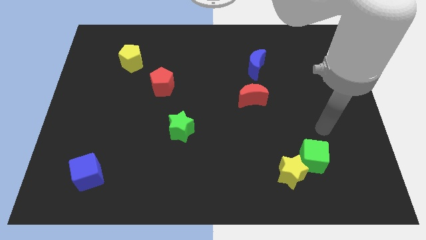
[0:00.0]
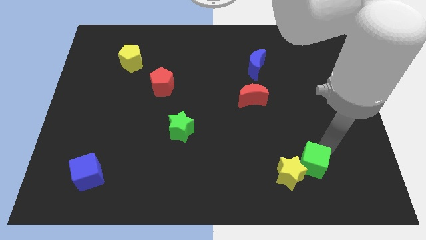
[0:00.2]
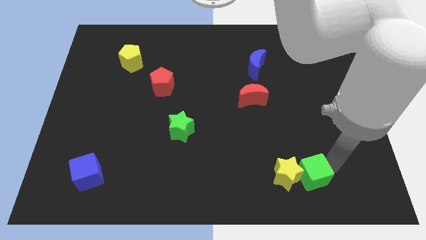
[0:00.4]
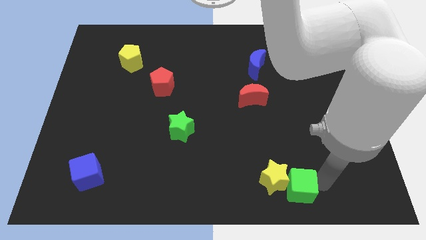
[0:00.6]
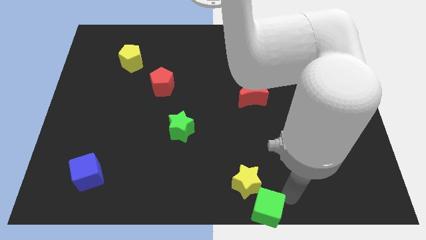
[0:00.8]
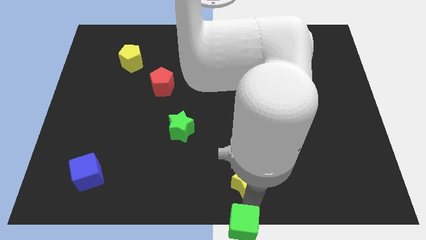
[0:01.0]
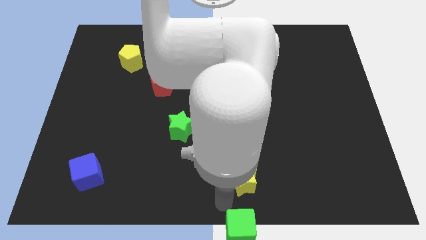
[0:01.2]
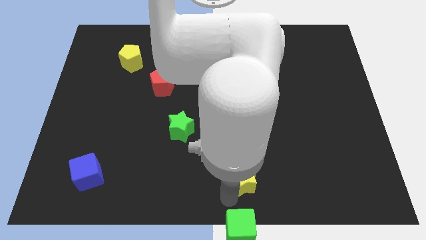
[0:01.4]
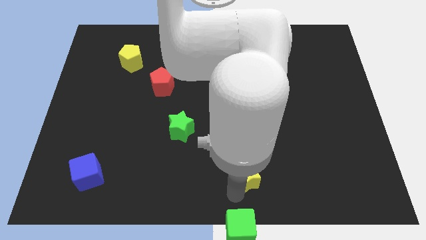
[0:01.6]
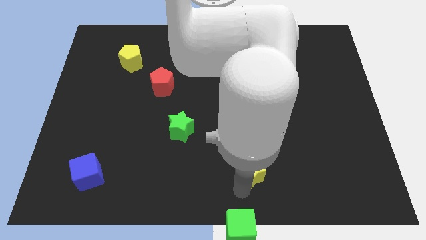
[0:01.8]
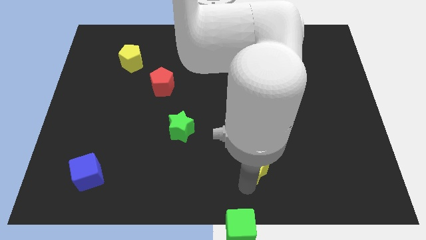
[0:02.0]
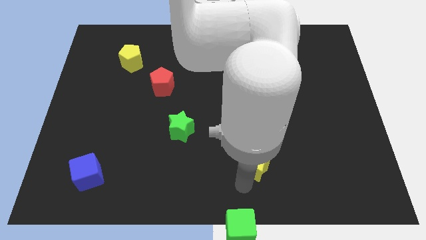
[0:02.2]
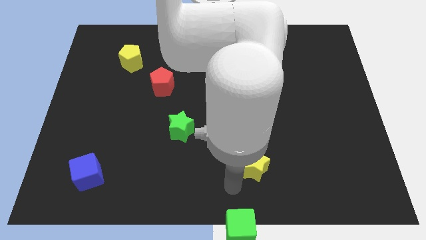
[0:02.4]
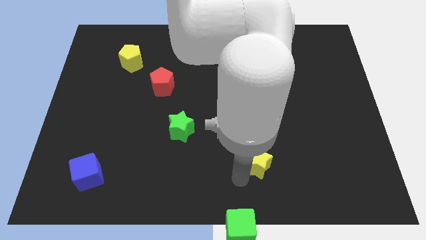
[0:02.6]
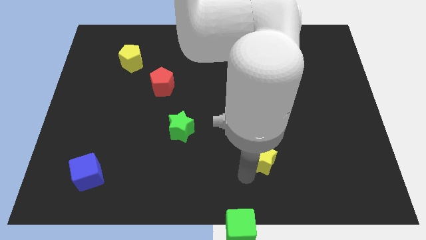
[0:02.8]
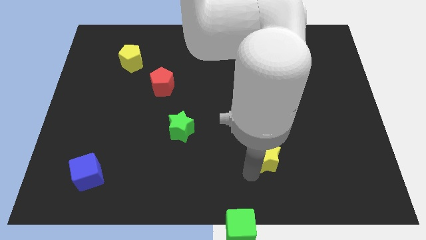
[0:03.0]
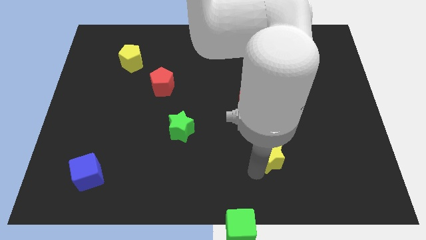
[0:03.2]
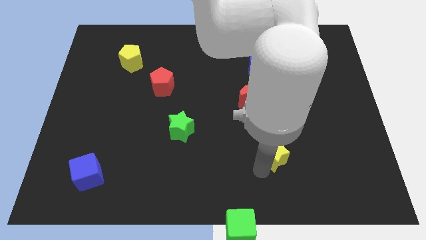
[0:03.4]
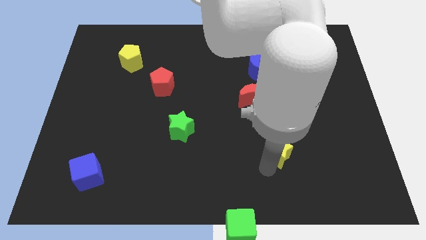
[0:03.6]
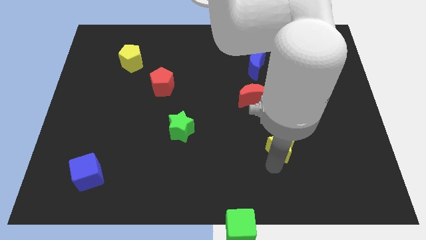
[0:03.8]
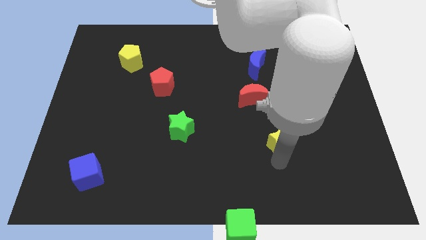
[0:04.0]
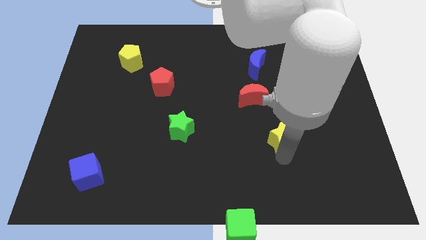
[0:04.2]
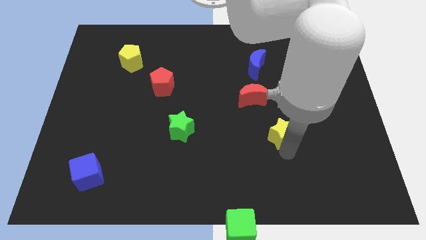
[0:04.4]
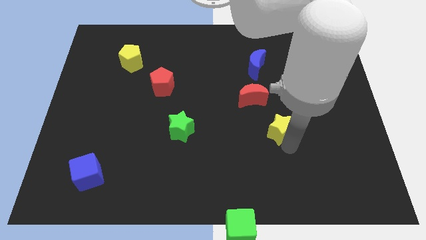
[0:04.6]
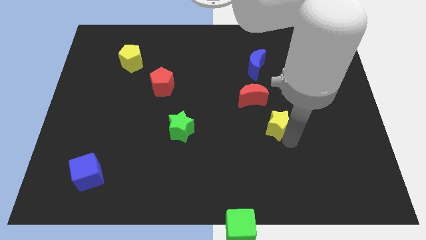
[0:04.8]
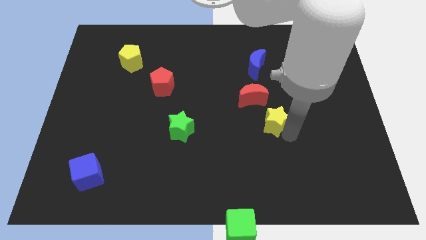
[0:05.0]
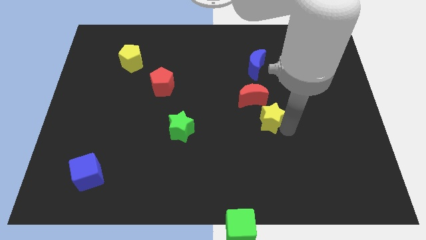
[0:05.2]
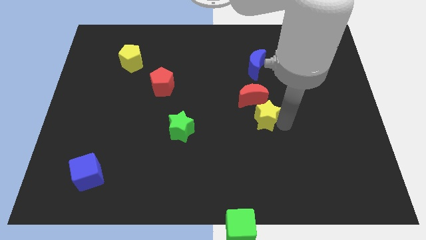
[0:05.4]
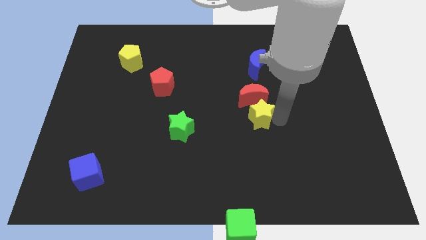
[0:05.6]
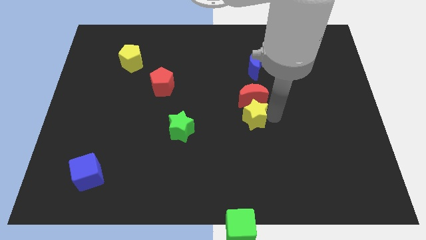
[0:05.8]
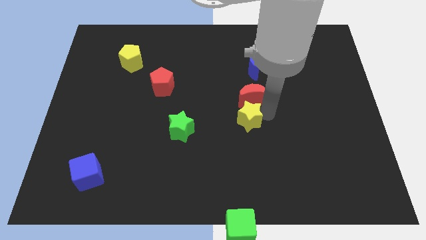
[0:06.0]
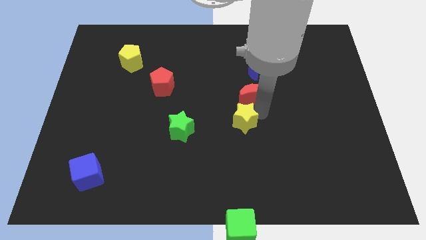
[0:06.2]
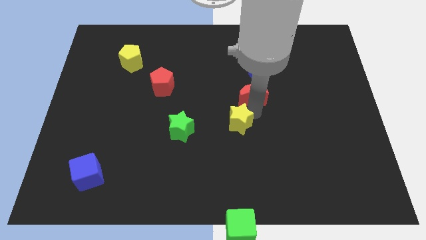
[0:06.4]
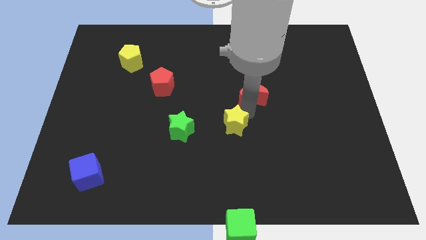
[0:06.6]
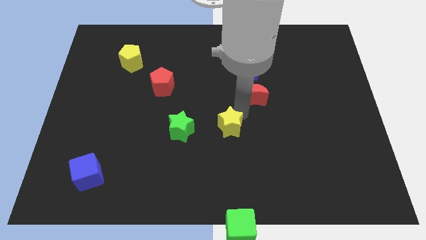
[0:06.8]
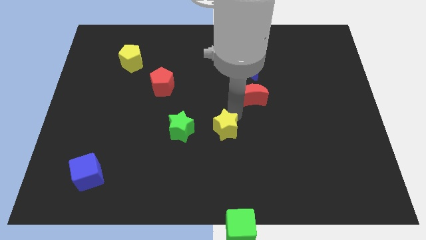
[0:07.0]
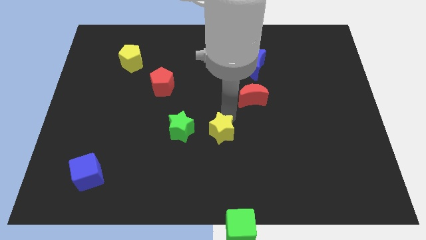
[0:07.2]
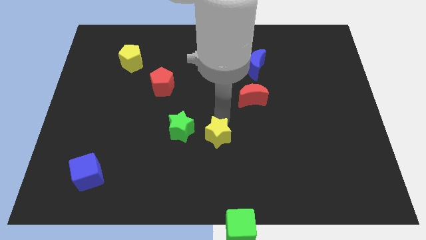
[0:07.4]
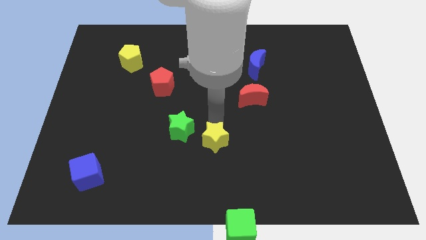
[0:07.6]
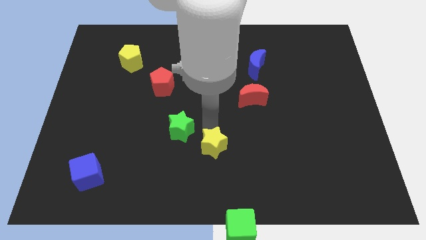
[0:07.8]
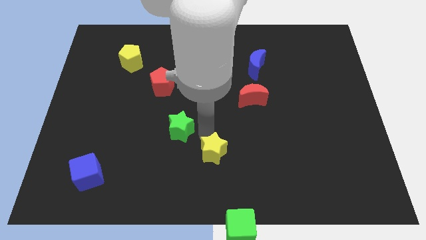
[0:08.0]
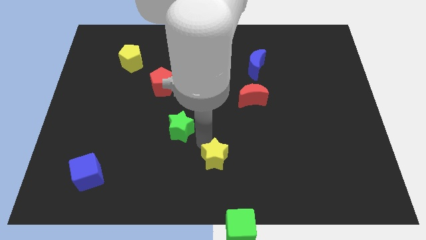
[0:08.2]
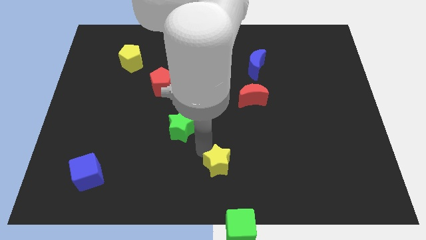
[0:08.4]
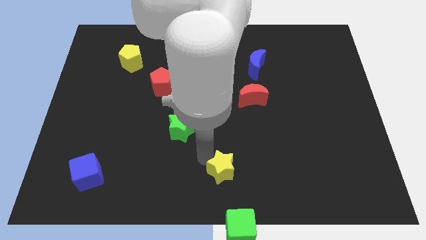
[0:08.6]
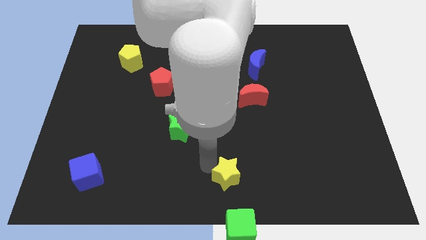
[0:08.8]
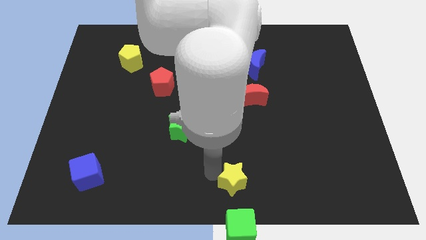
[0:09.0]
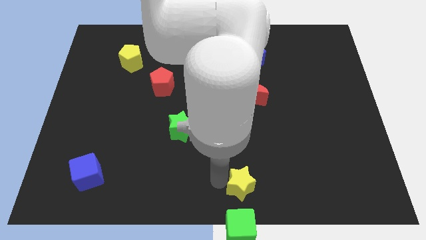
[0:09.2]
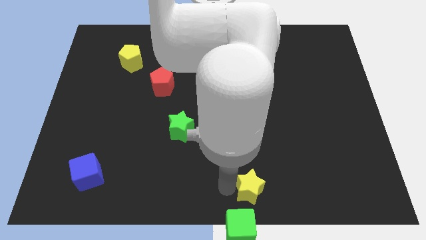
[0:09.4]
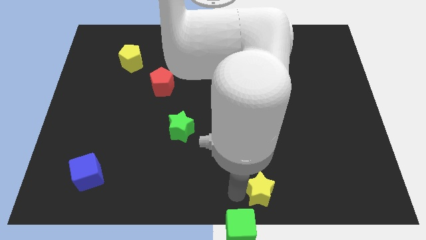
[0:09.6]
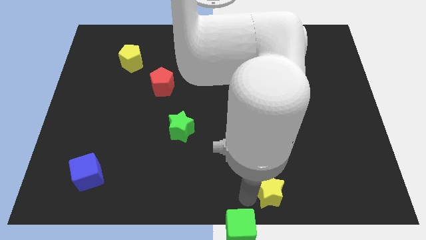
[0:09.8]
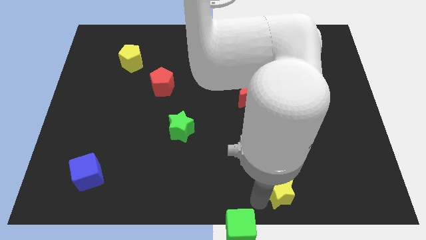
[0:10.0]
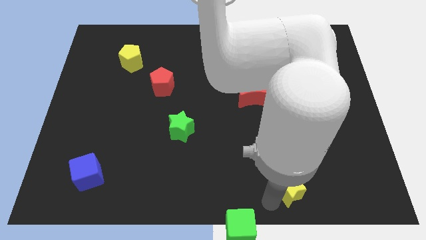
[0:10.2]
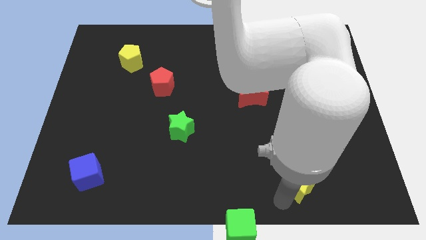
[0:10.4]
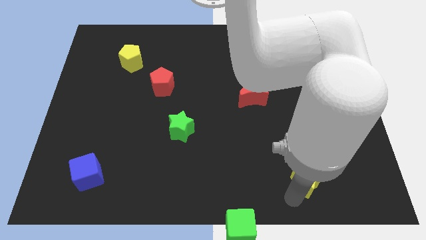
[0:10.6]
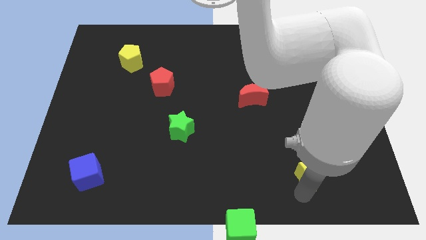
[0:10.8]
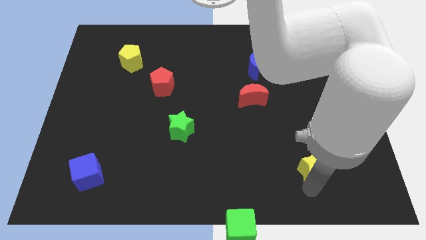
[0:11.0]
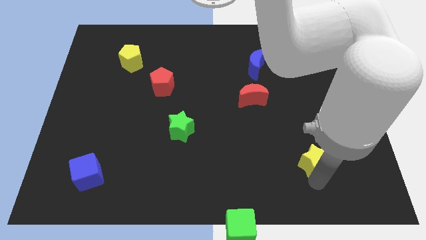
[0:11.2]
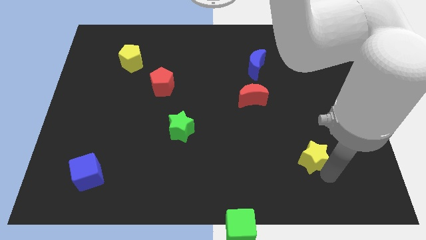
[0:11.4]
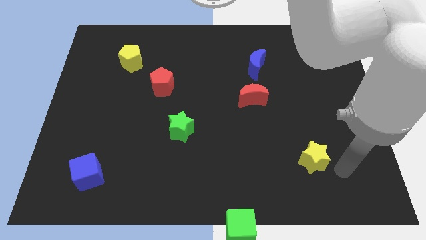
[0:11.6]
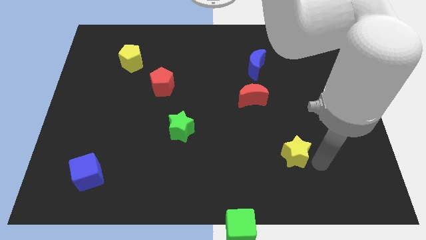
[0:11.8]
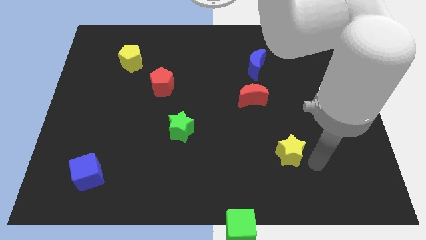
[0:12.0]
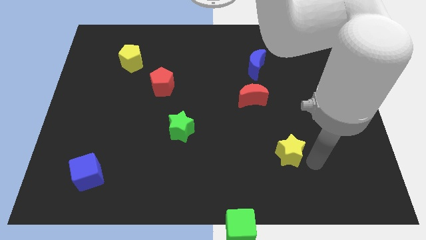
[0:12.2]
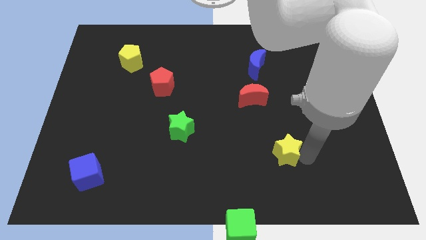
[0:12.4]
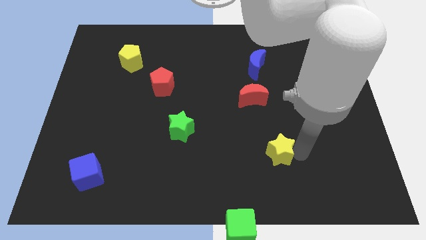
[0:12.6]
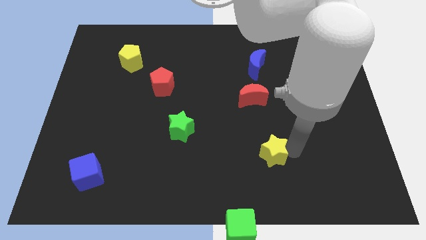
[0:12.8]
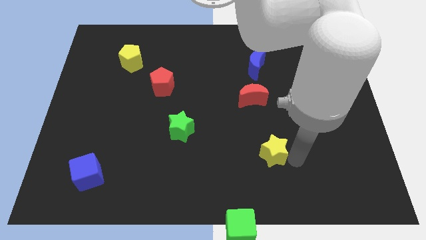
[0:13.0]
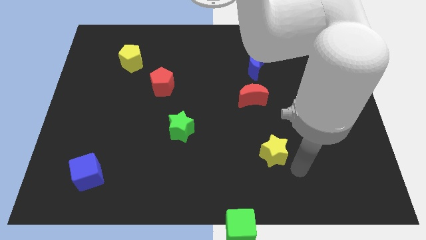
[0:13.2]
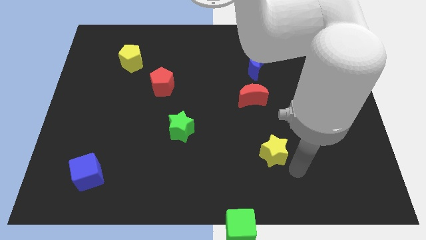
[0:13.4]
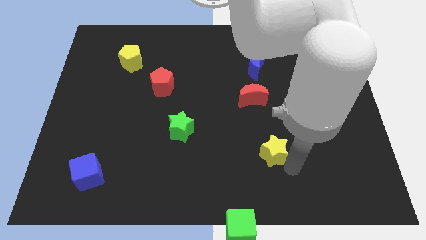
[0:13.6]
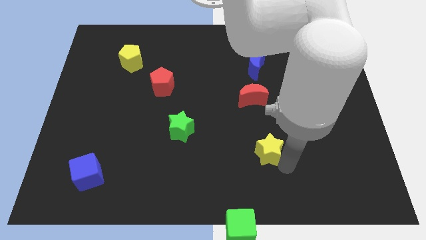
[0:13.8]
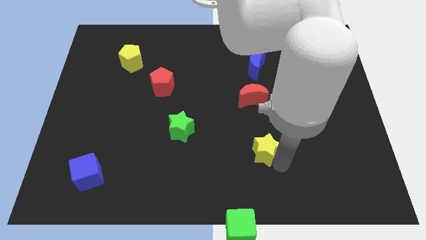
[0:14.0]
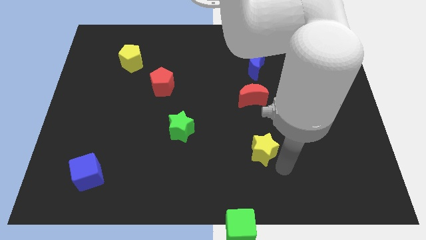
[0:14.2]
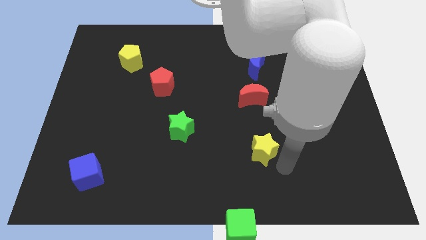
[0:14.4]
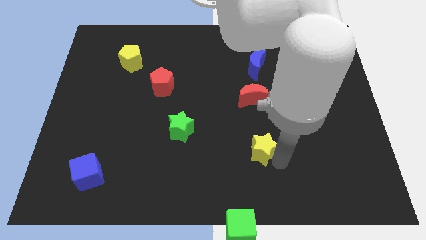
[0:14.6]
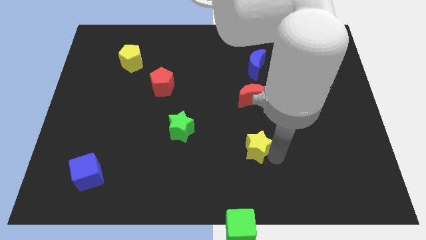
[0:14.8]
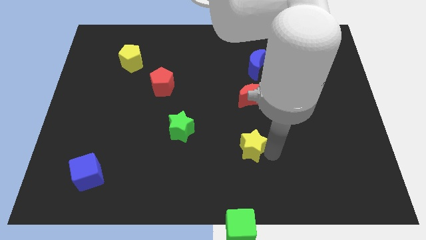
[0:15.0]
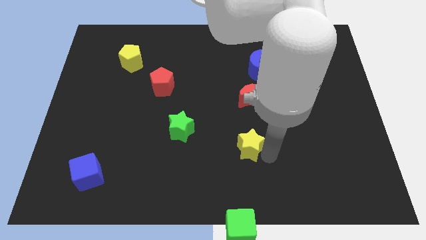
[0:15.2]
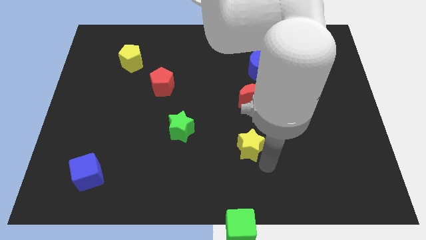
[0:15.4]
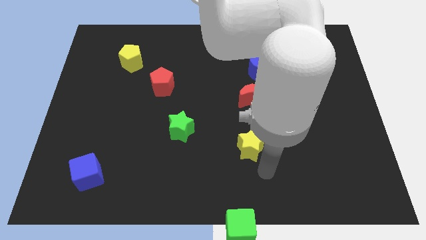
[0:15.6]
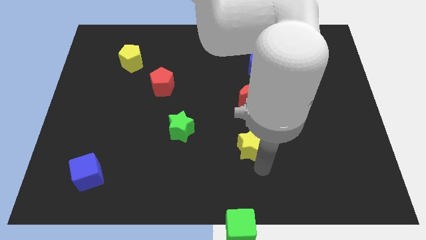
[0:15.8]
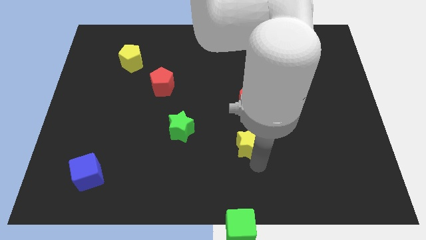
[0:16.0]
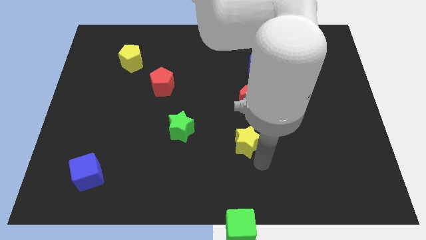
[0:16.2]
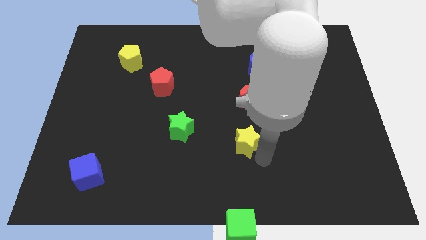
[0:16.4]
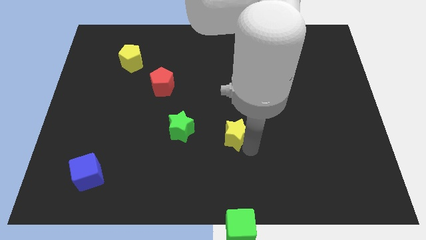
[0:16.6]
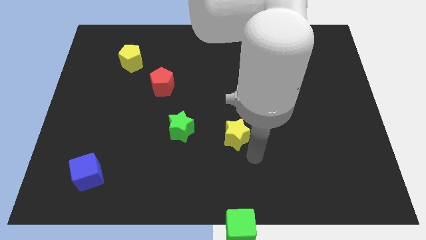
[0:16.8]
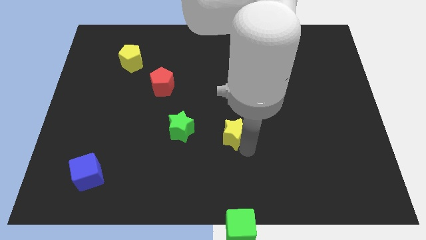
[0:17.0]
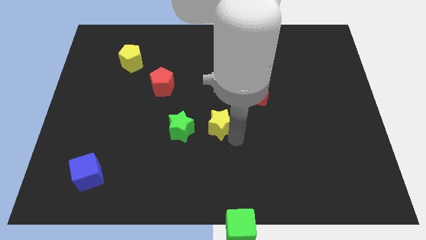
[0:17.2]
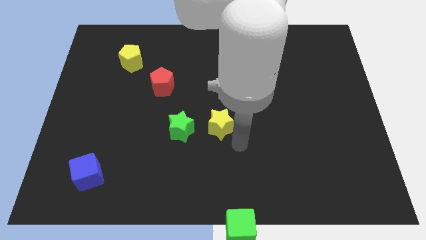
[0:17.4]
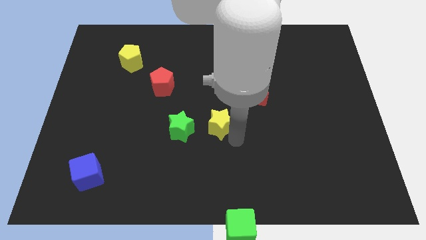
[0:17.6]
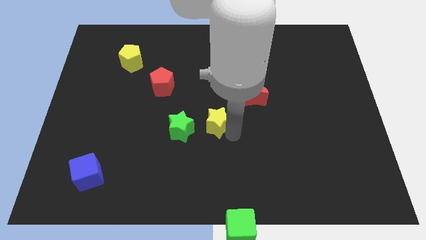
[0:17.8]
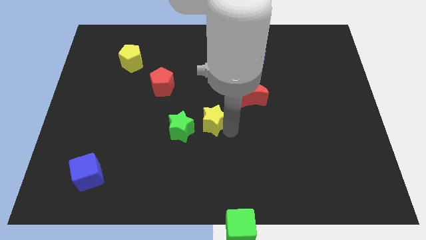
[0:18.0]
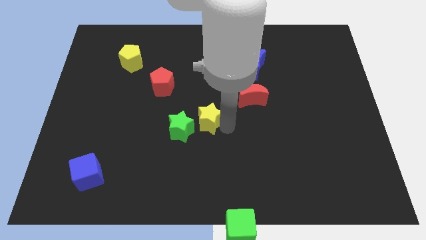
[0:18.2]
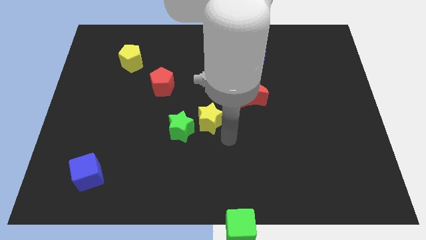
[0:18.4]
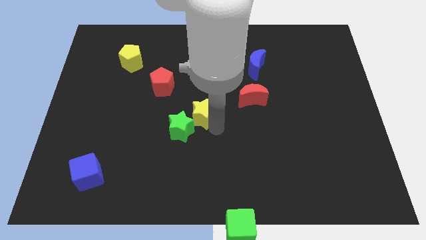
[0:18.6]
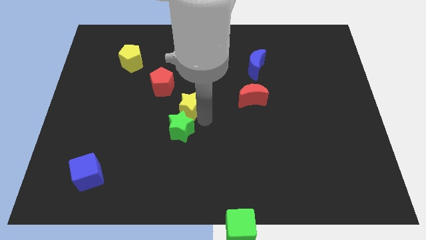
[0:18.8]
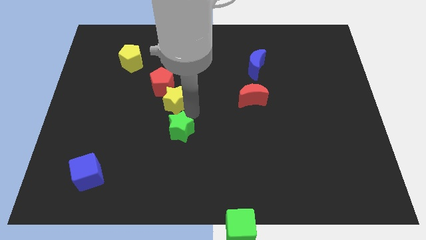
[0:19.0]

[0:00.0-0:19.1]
move the yellow star to the red pentagon
